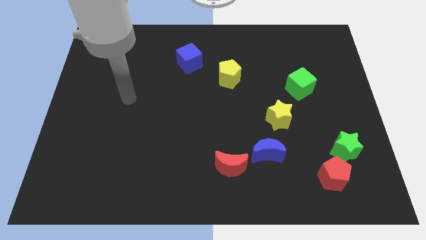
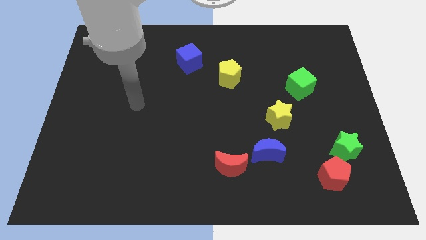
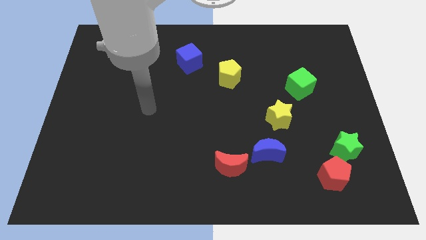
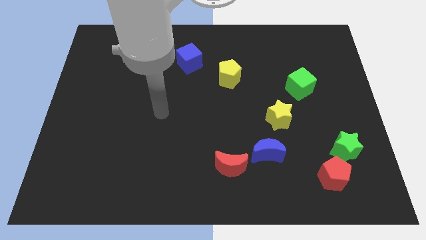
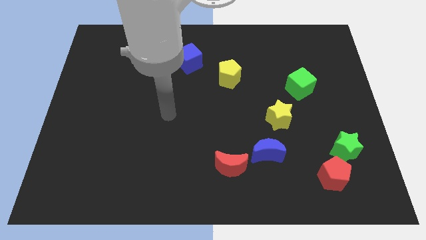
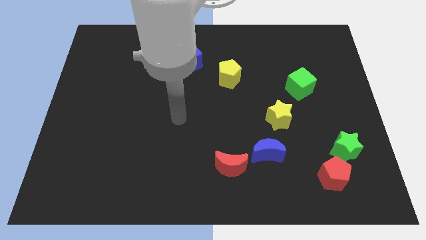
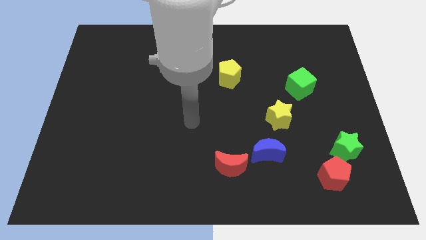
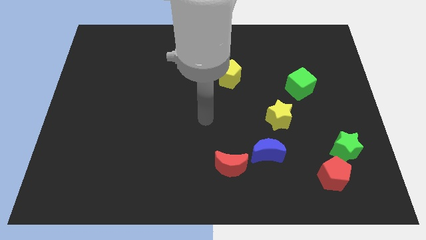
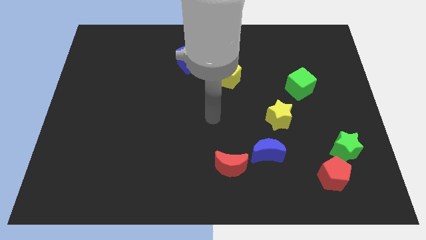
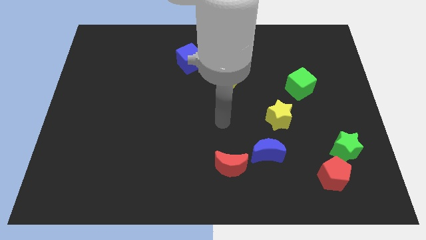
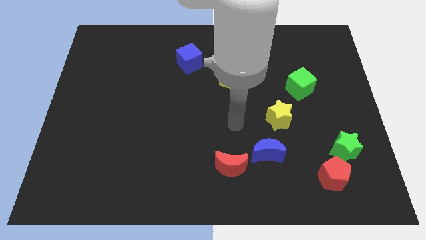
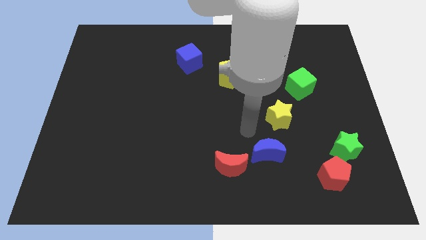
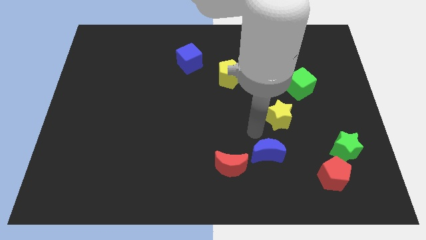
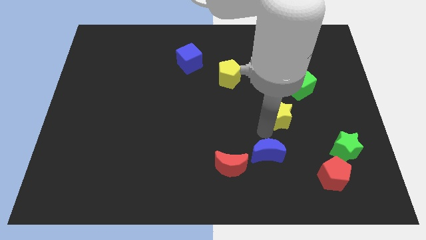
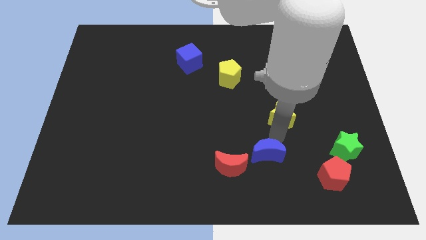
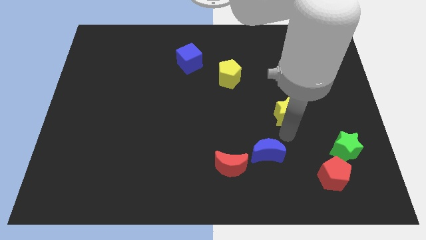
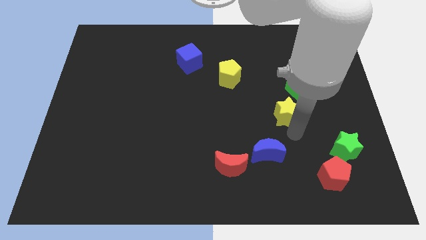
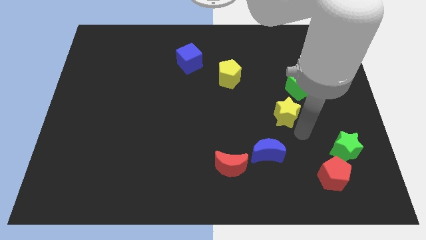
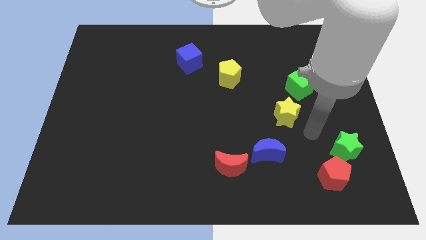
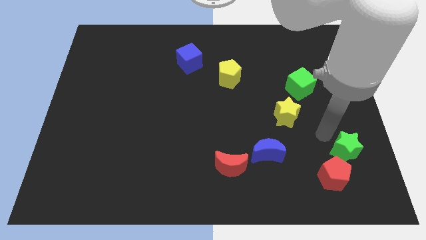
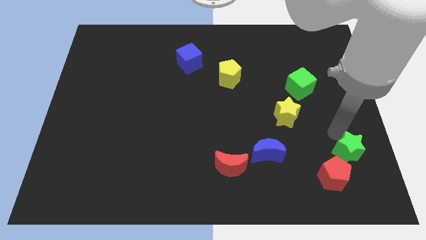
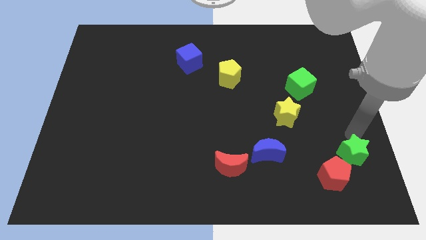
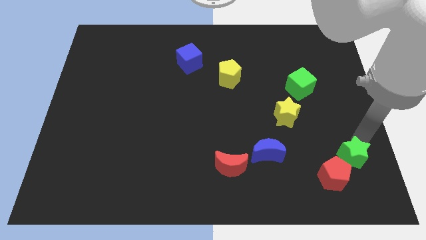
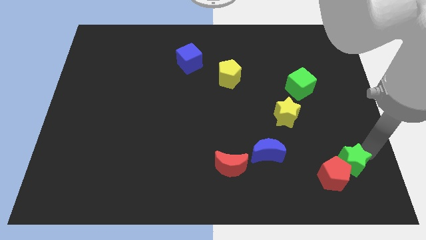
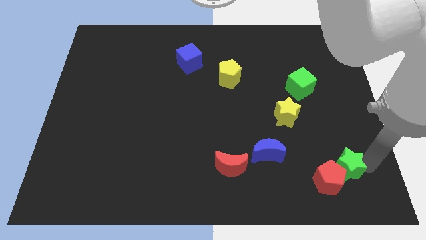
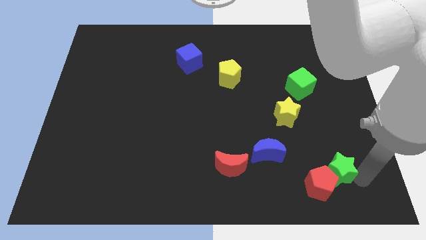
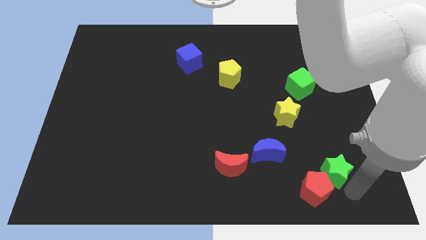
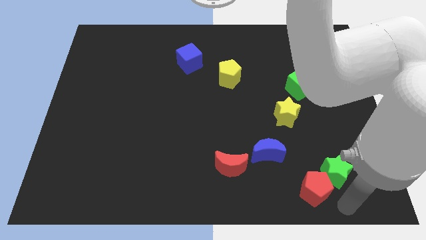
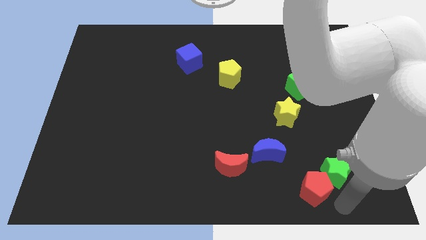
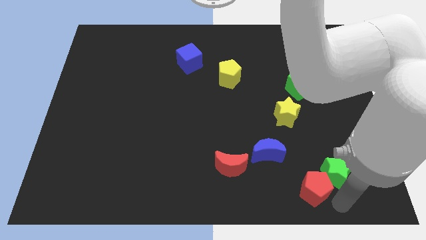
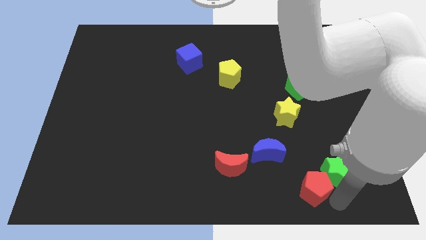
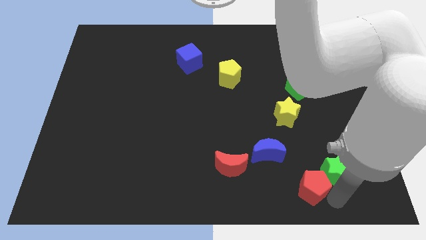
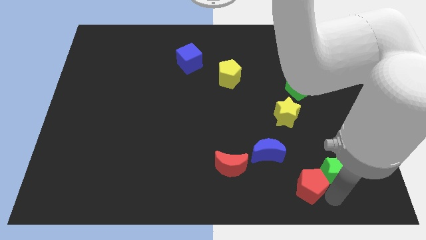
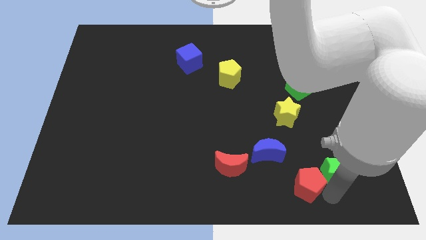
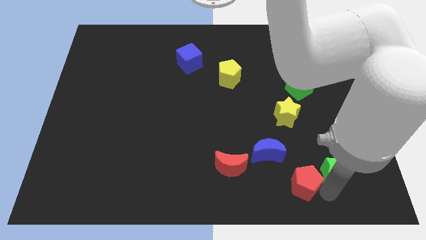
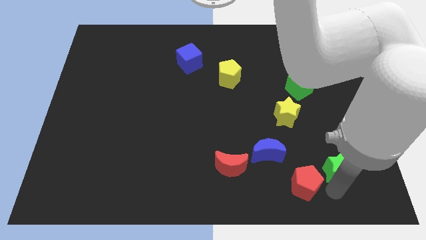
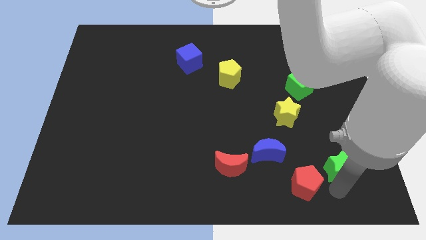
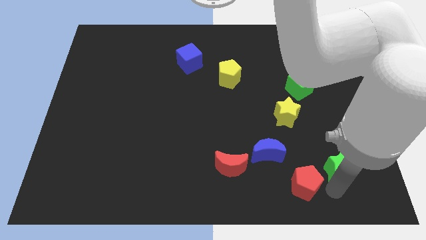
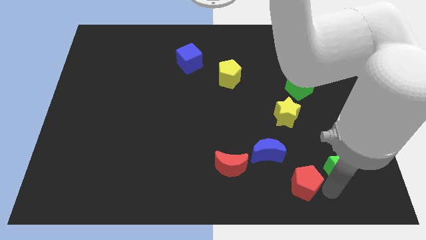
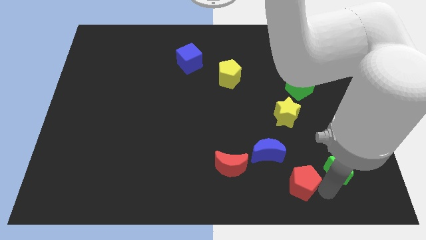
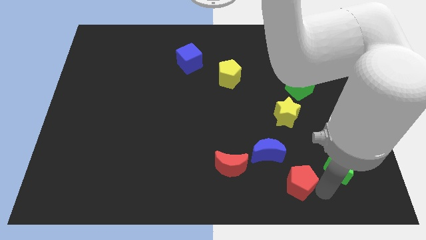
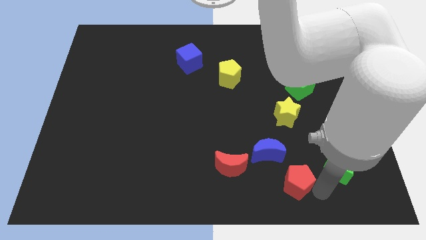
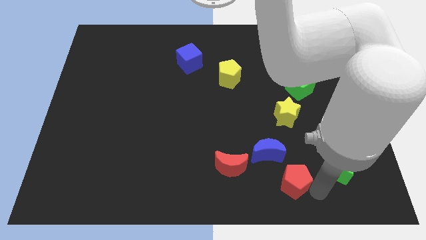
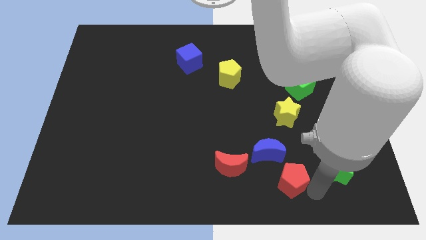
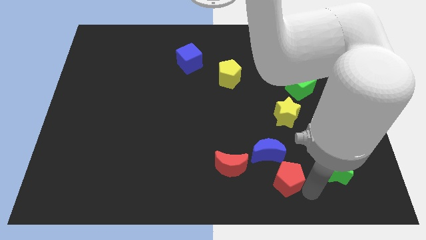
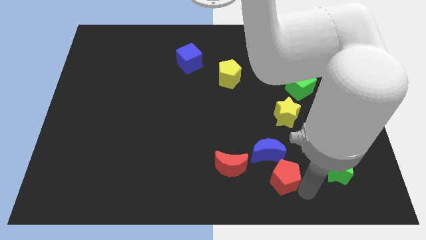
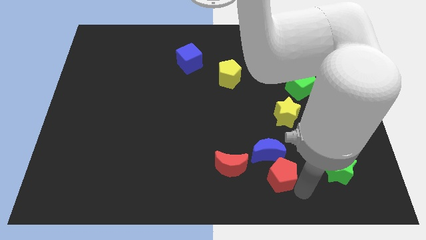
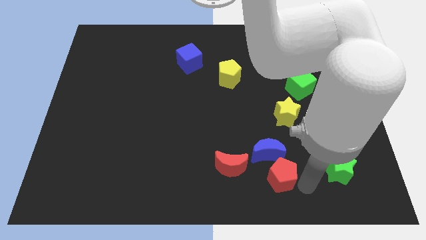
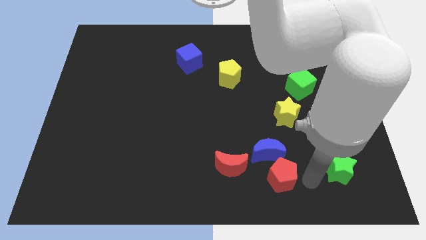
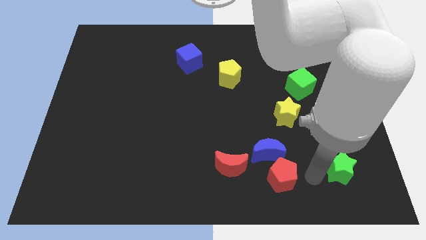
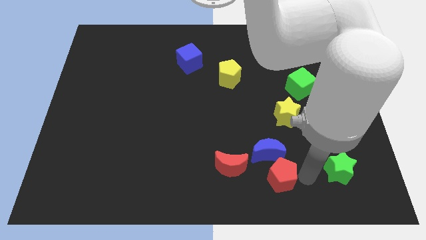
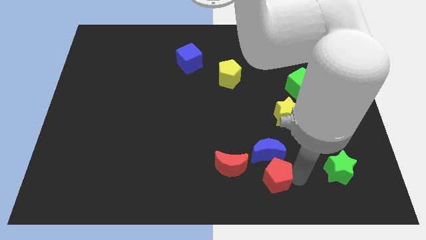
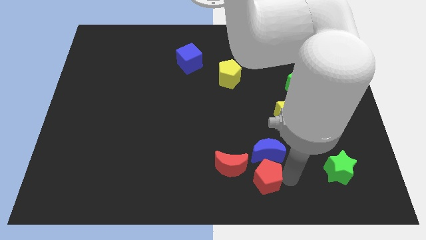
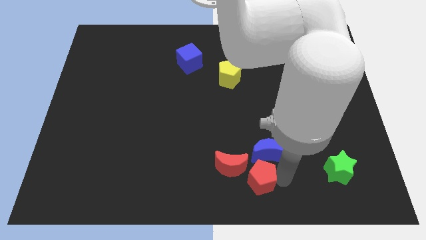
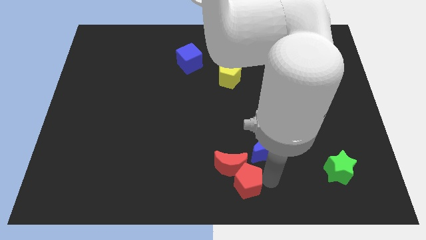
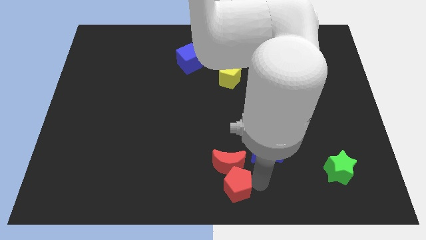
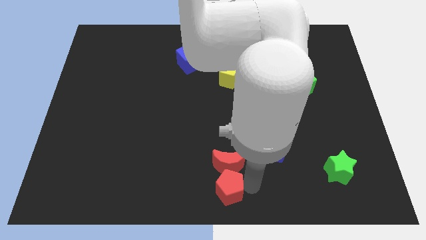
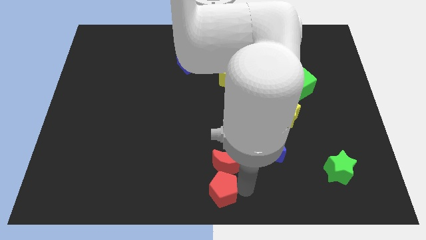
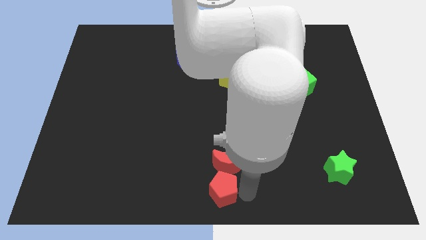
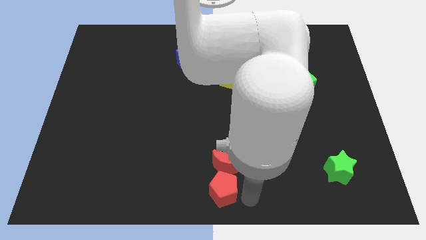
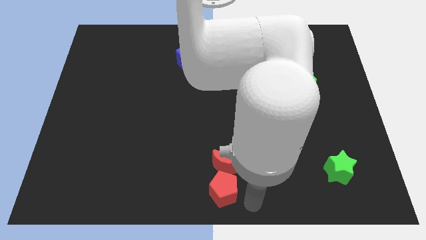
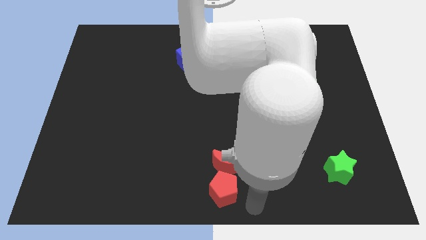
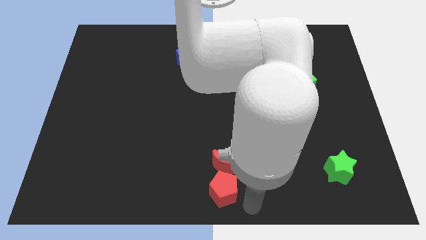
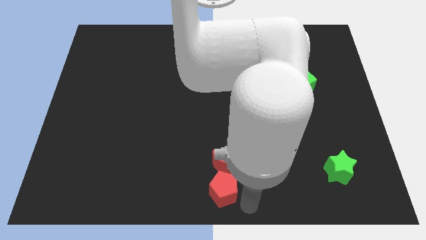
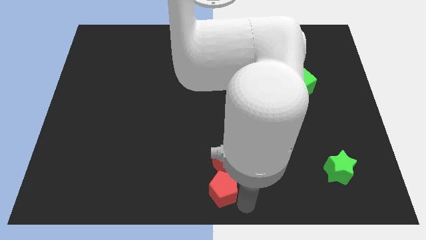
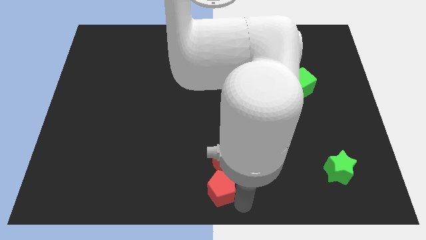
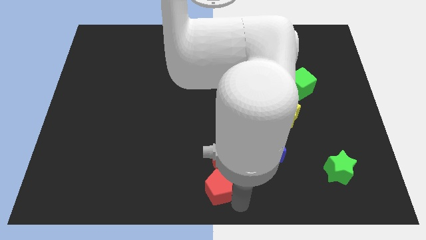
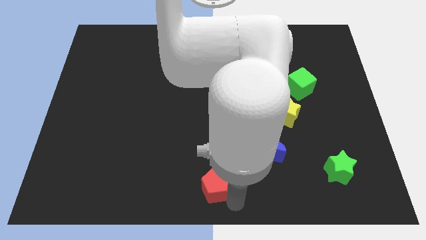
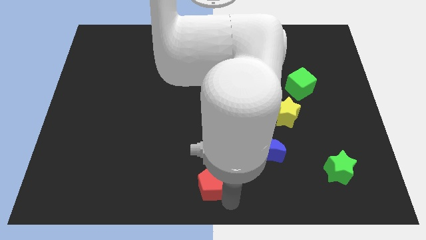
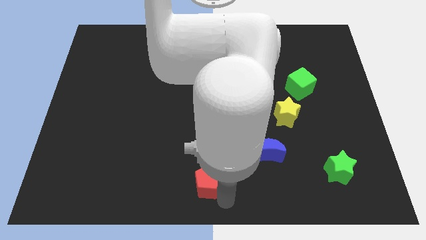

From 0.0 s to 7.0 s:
slide the red pentagon to the left side of the red moon
